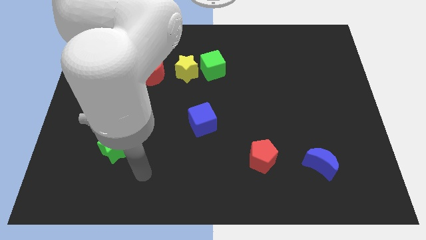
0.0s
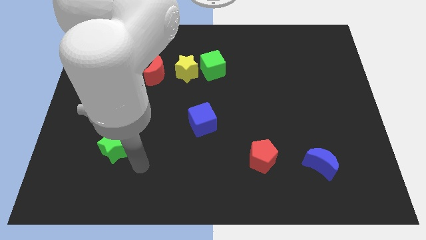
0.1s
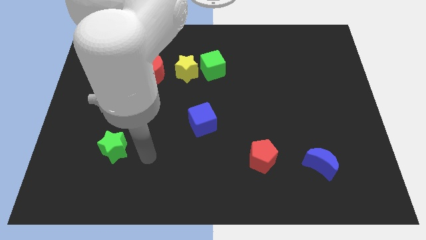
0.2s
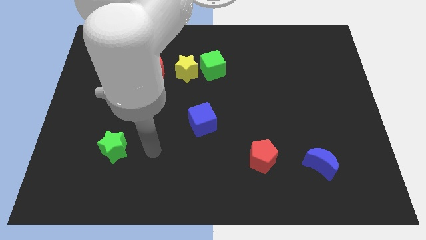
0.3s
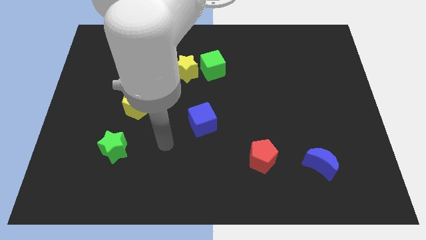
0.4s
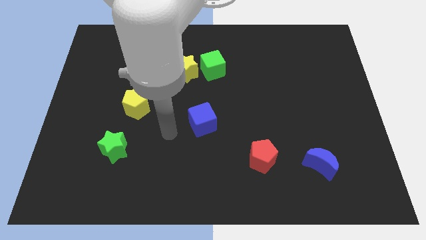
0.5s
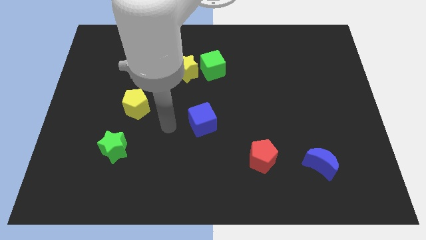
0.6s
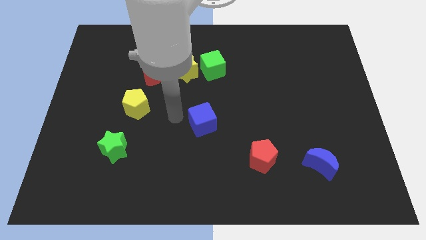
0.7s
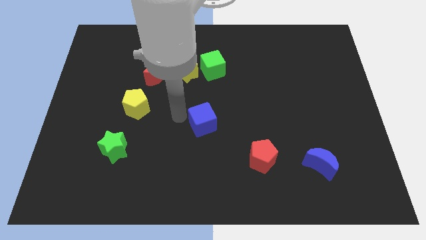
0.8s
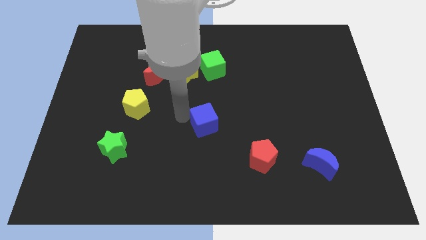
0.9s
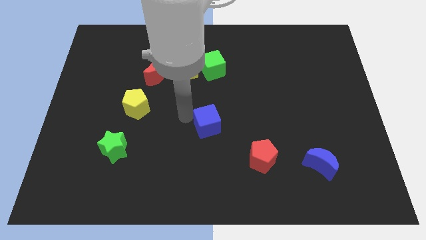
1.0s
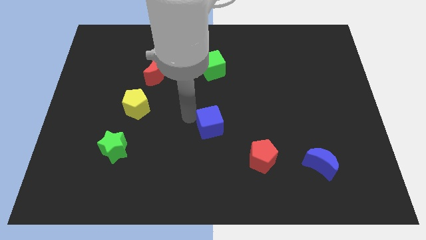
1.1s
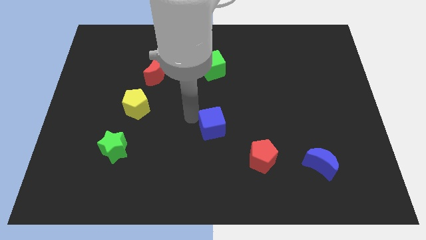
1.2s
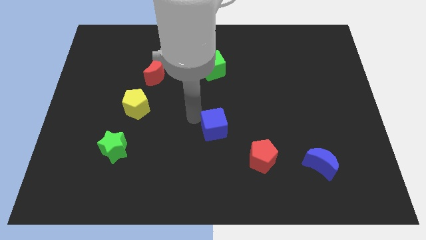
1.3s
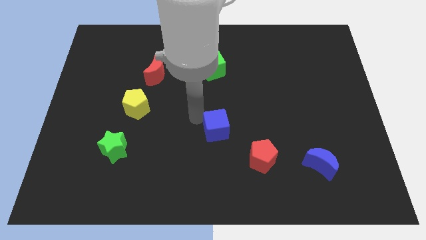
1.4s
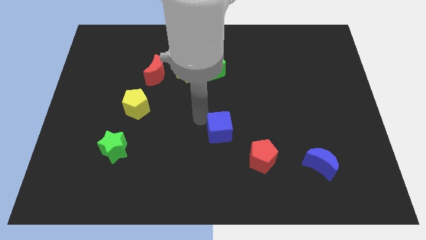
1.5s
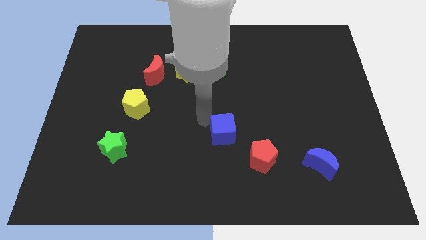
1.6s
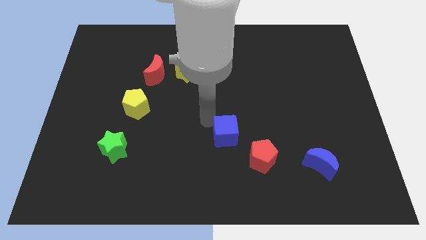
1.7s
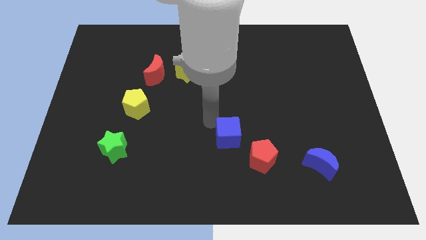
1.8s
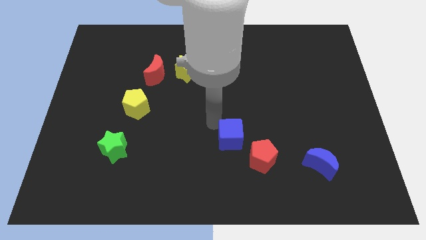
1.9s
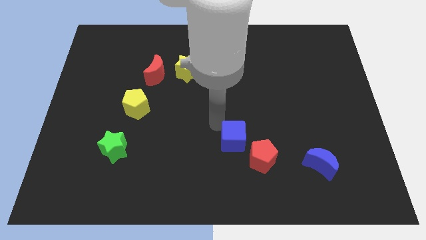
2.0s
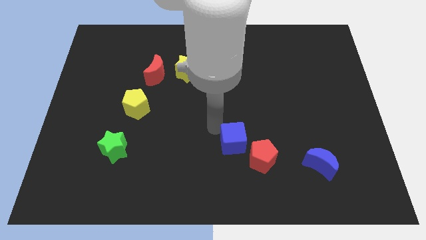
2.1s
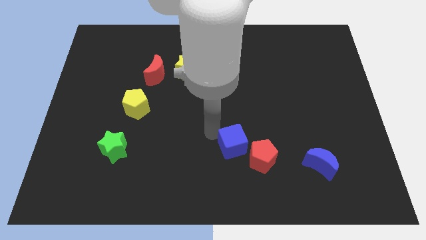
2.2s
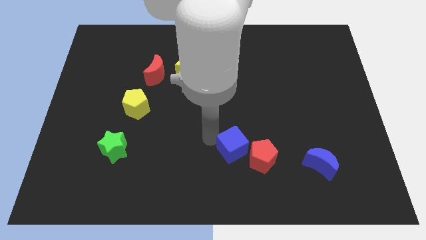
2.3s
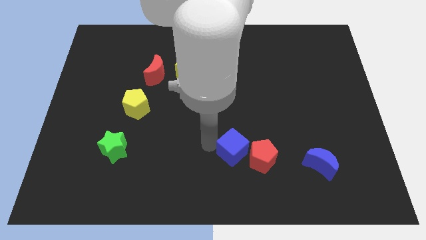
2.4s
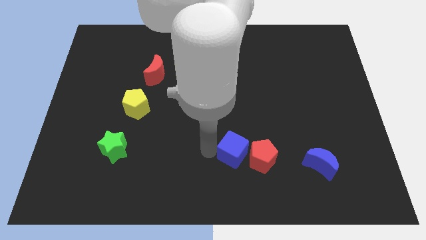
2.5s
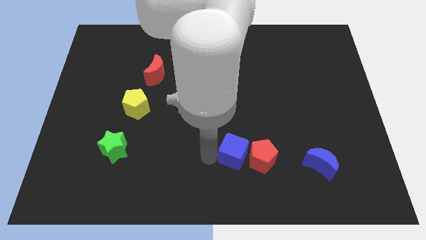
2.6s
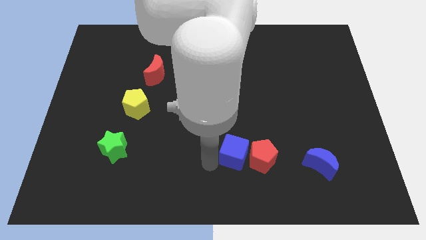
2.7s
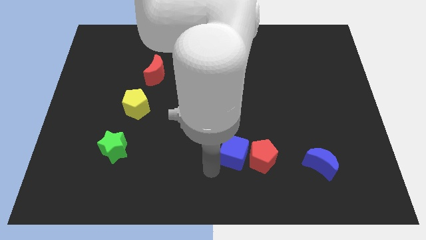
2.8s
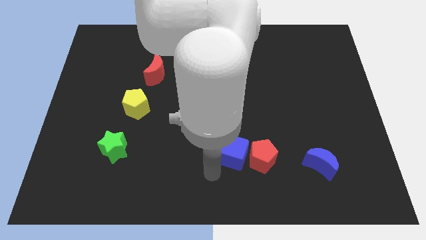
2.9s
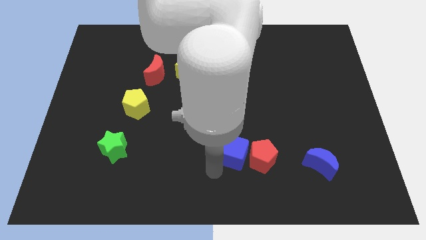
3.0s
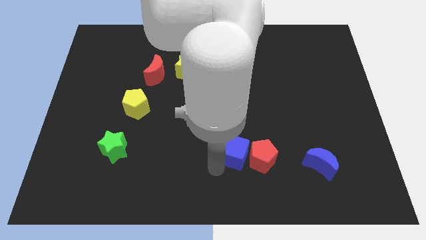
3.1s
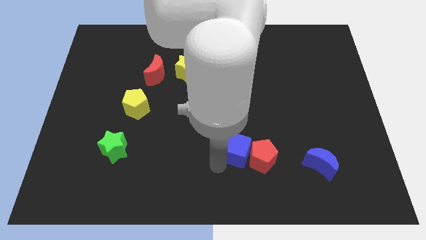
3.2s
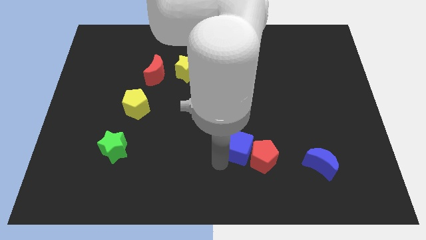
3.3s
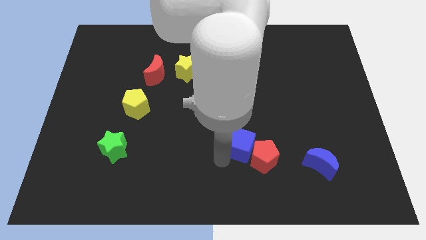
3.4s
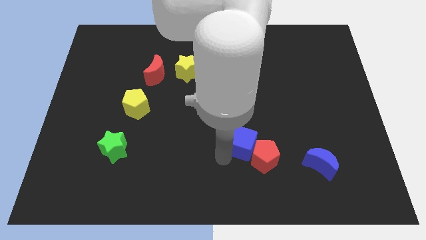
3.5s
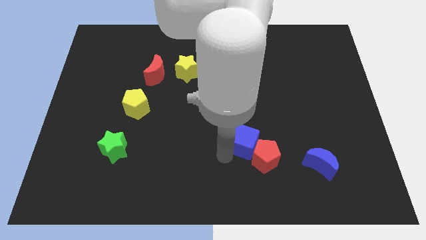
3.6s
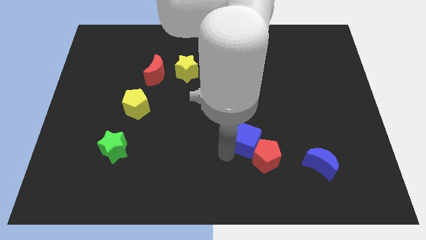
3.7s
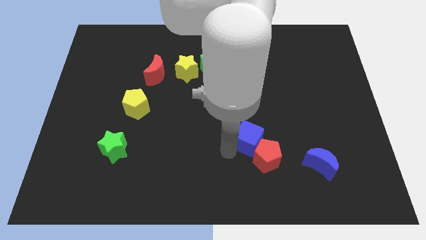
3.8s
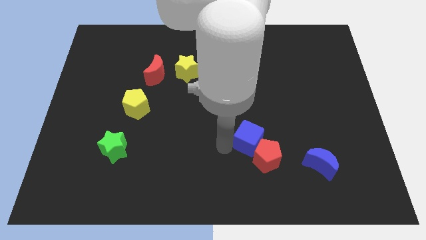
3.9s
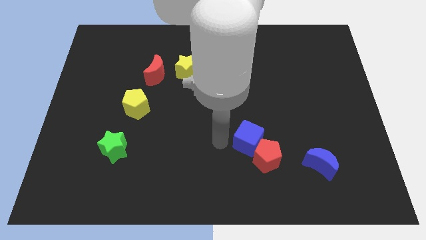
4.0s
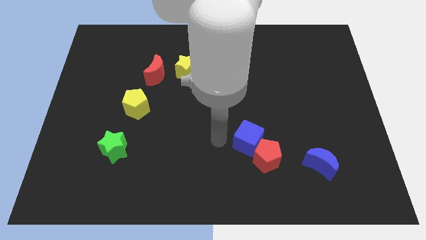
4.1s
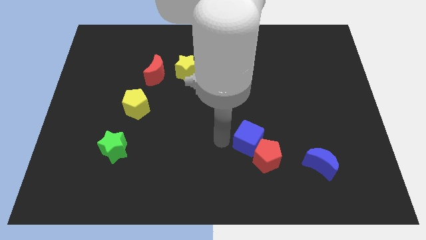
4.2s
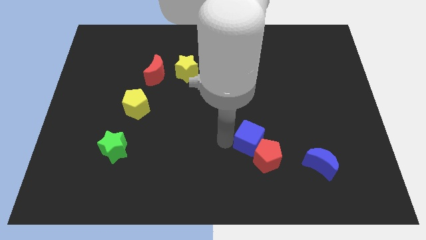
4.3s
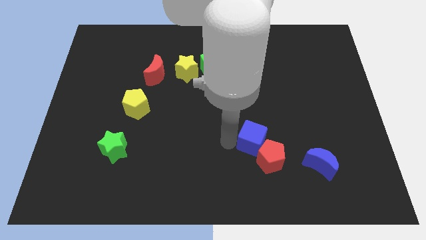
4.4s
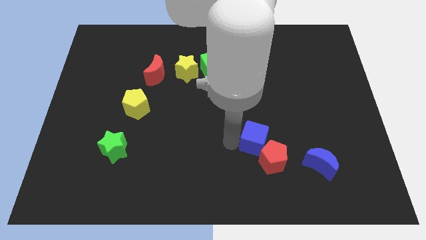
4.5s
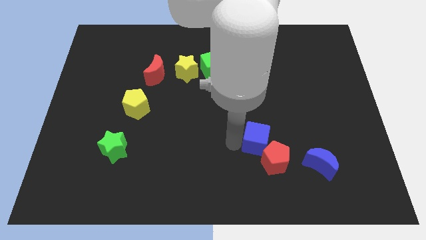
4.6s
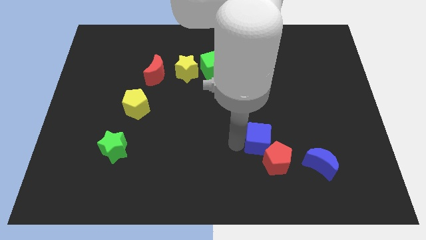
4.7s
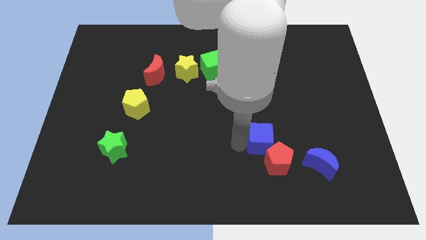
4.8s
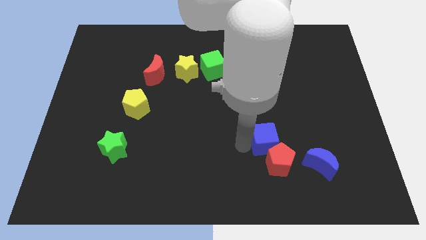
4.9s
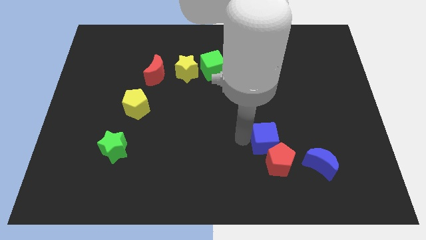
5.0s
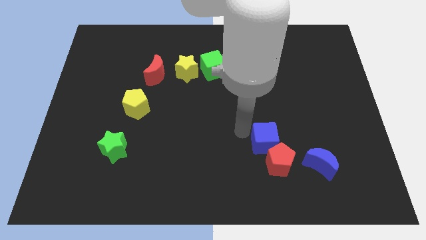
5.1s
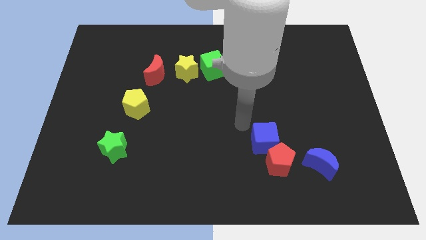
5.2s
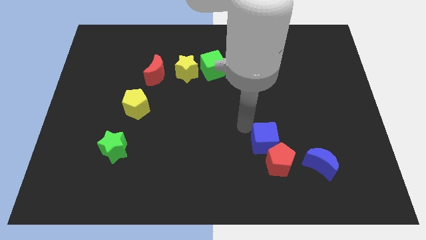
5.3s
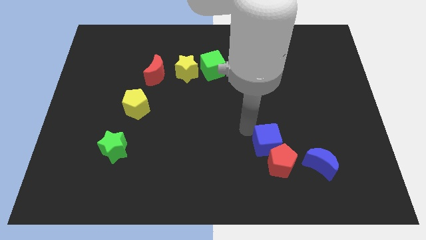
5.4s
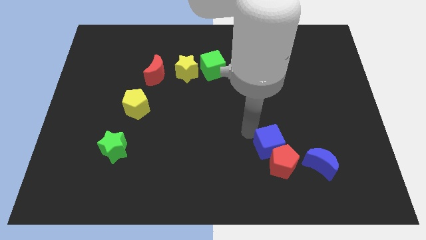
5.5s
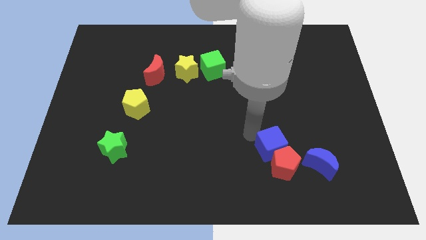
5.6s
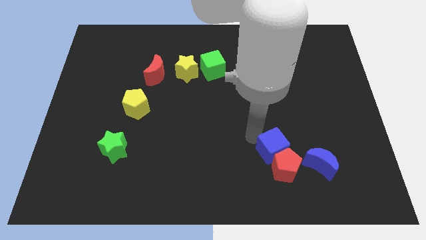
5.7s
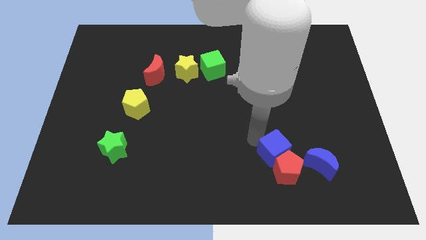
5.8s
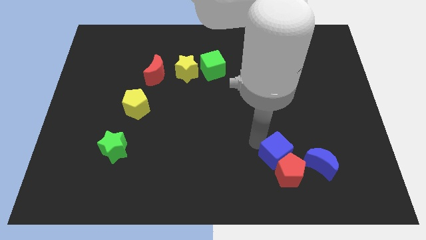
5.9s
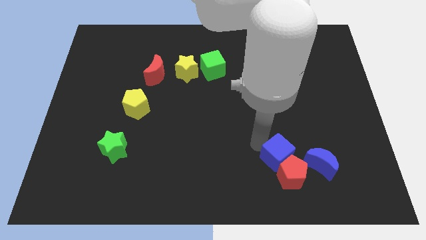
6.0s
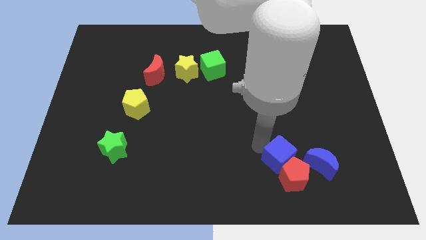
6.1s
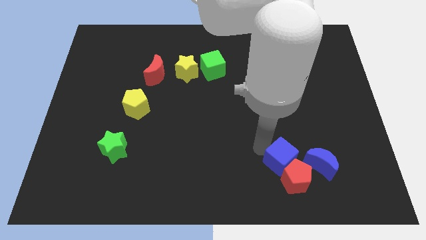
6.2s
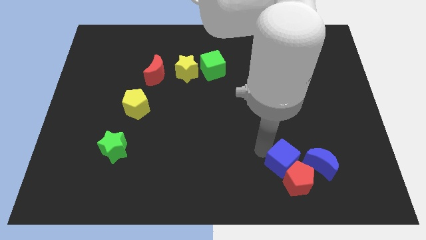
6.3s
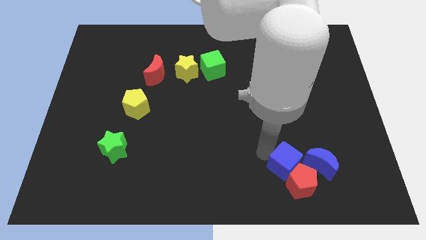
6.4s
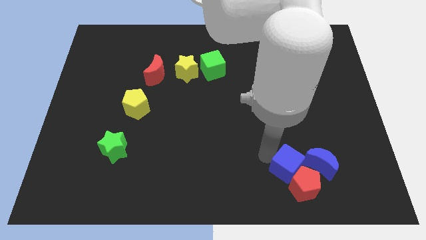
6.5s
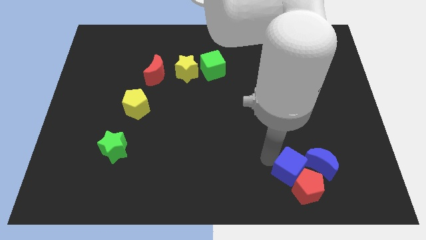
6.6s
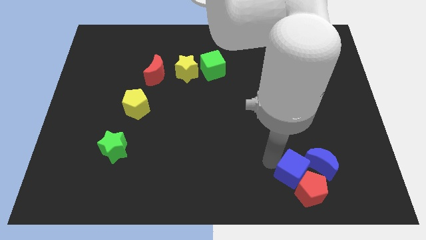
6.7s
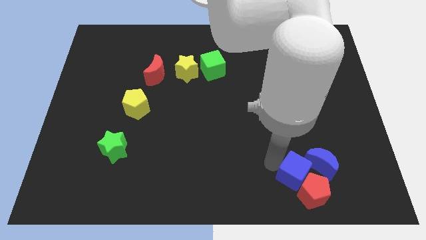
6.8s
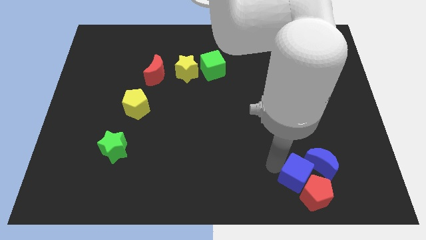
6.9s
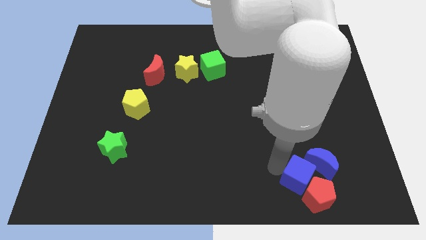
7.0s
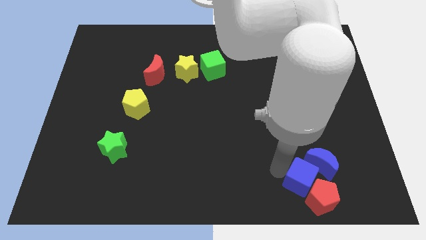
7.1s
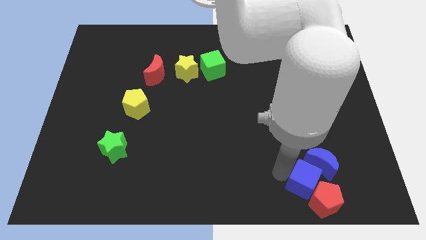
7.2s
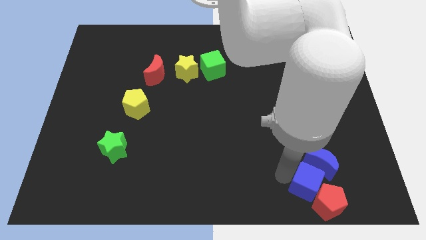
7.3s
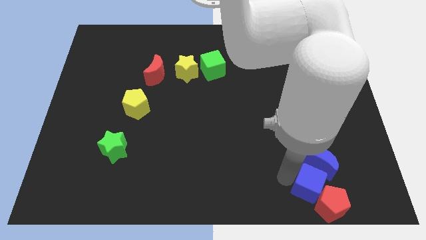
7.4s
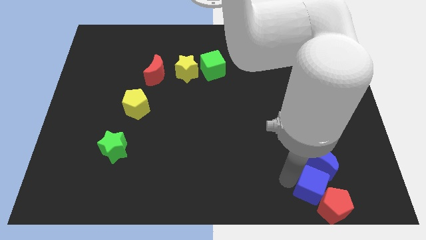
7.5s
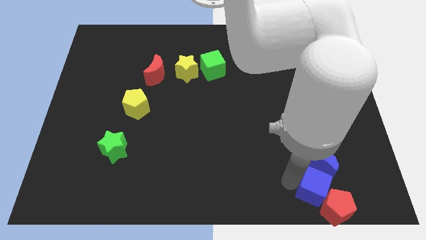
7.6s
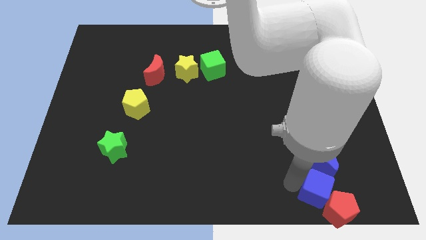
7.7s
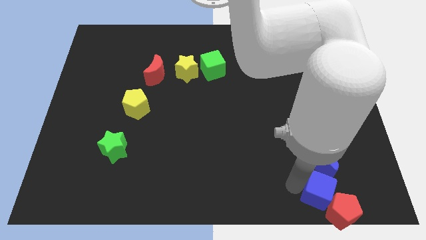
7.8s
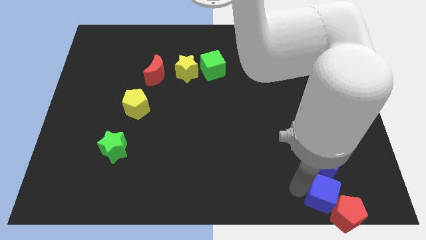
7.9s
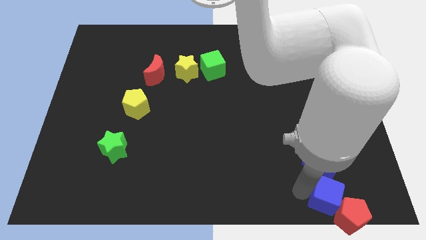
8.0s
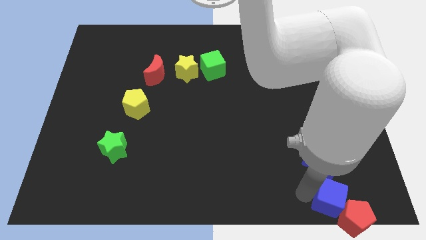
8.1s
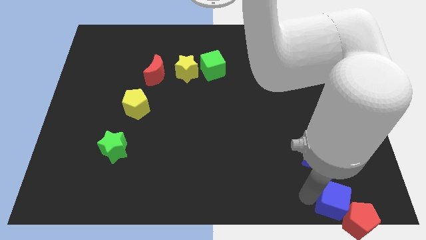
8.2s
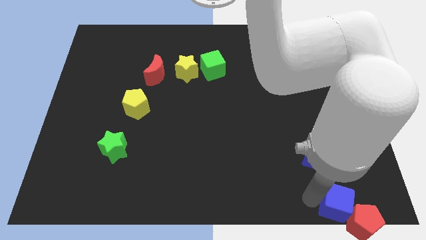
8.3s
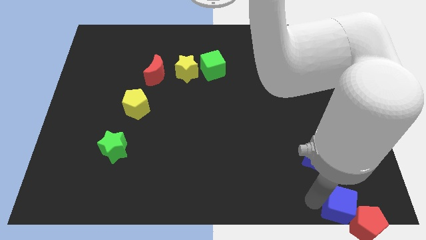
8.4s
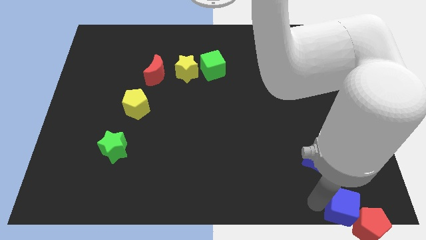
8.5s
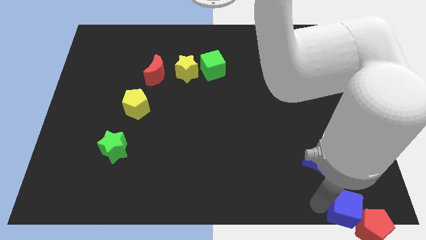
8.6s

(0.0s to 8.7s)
put the blue cube to the lower right corner
